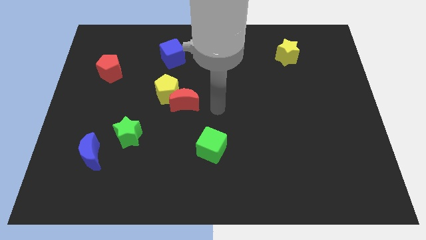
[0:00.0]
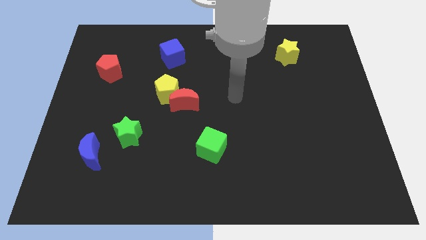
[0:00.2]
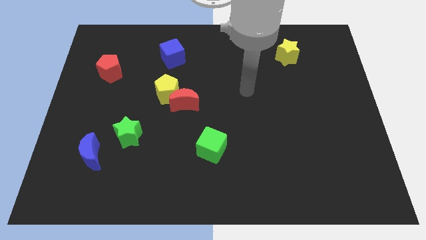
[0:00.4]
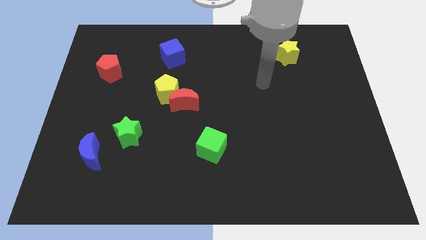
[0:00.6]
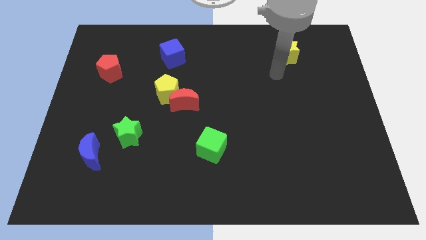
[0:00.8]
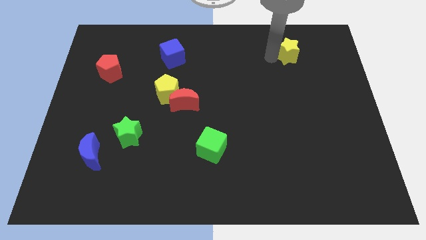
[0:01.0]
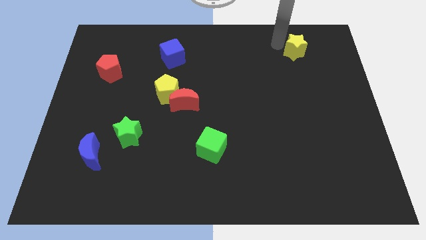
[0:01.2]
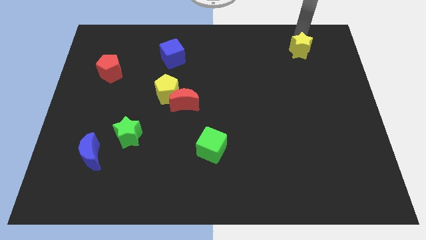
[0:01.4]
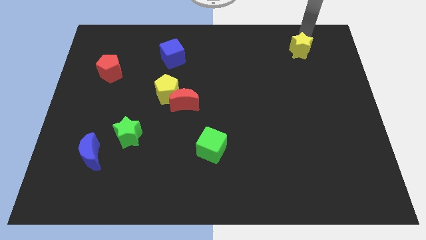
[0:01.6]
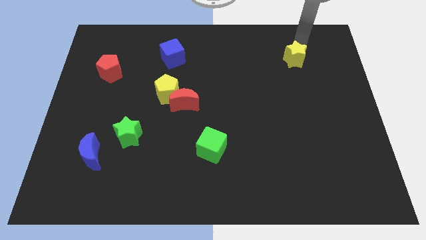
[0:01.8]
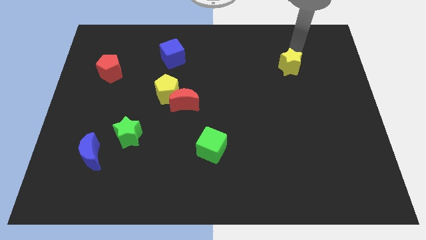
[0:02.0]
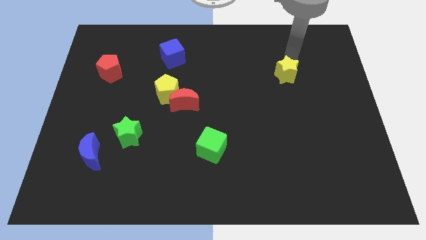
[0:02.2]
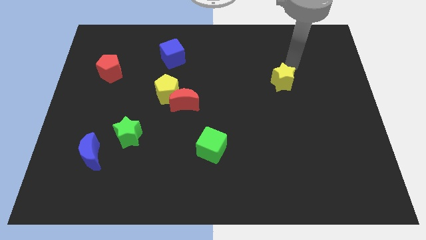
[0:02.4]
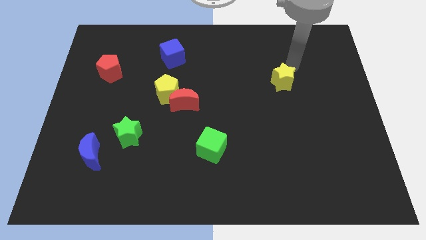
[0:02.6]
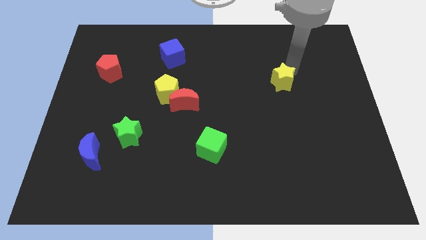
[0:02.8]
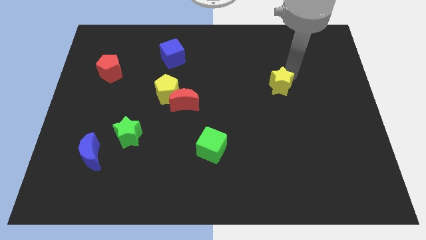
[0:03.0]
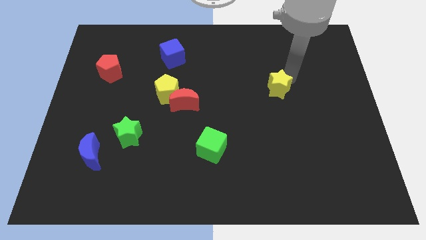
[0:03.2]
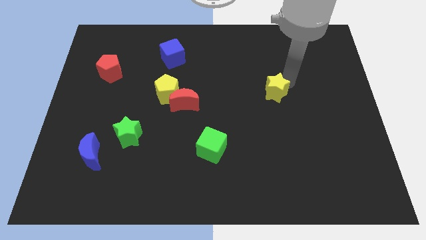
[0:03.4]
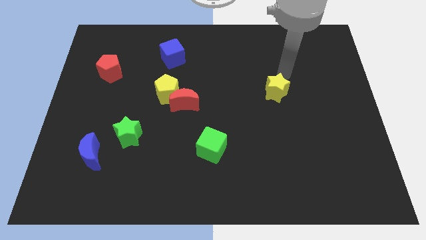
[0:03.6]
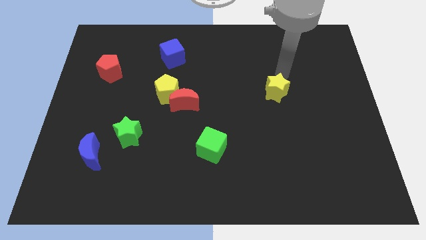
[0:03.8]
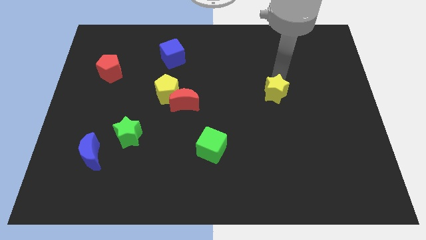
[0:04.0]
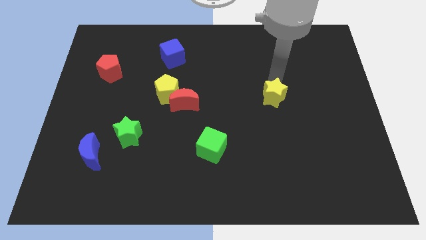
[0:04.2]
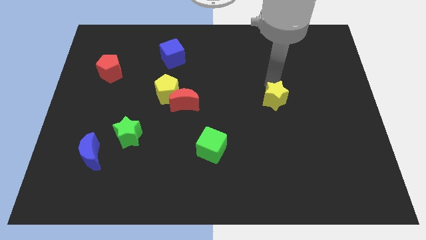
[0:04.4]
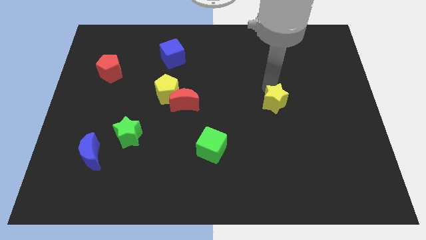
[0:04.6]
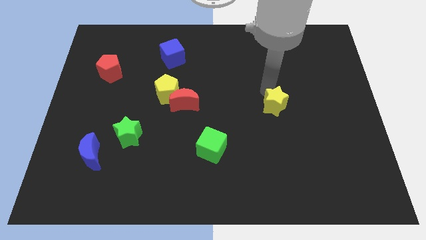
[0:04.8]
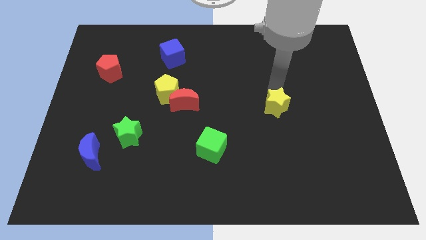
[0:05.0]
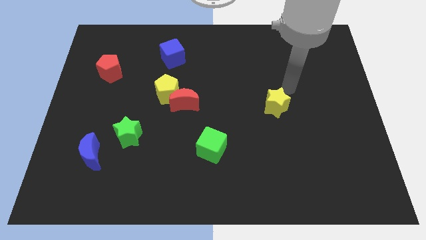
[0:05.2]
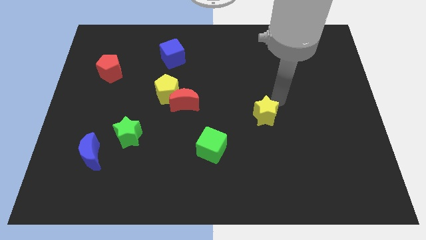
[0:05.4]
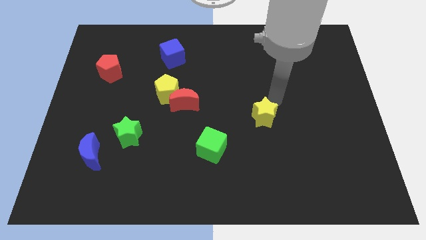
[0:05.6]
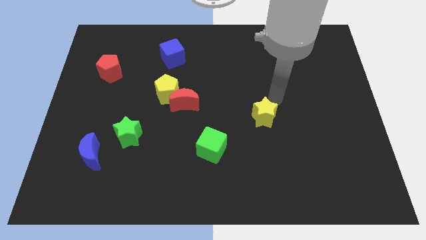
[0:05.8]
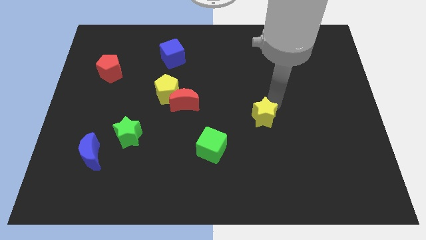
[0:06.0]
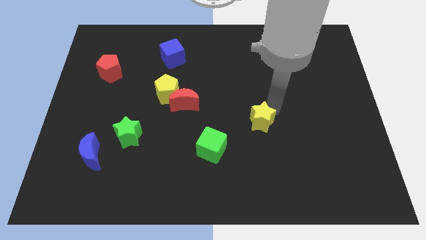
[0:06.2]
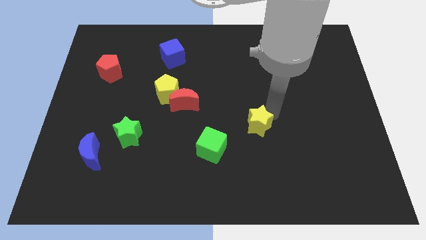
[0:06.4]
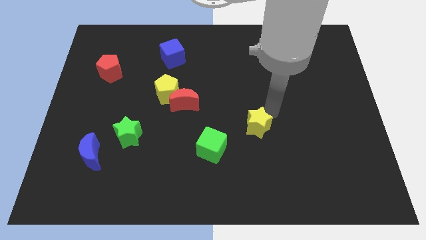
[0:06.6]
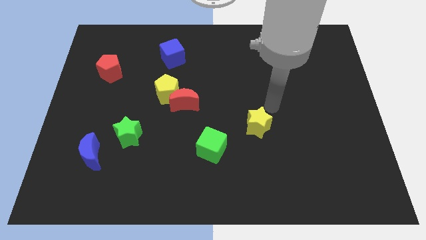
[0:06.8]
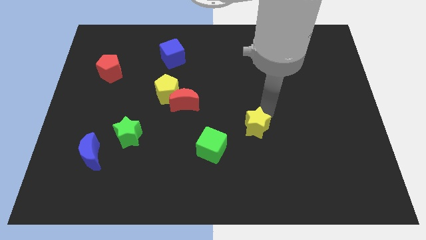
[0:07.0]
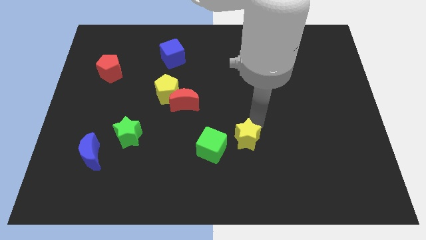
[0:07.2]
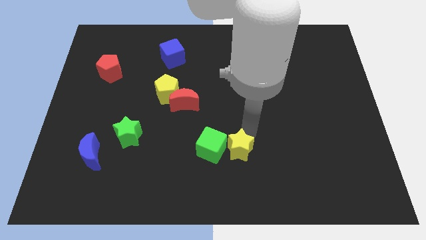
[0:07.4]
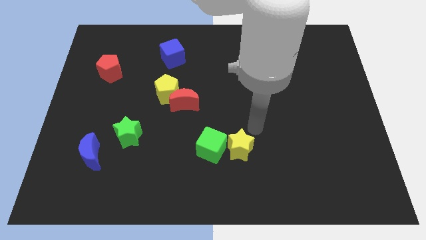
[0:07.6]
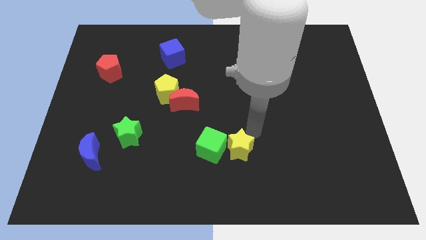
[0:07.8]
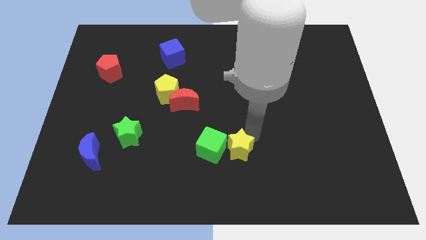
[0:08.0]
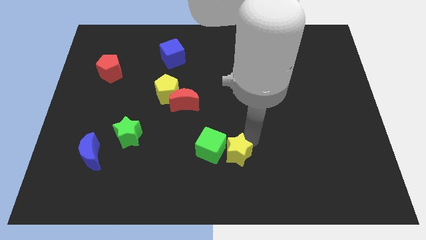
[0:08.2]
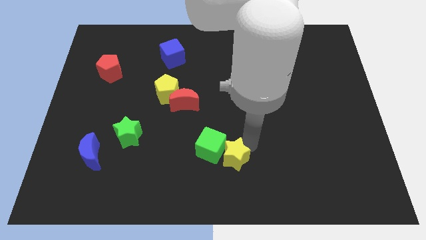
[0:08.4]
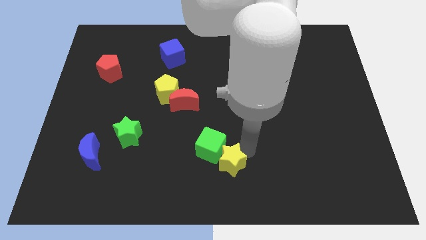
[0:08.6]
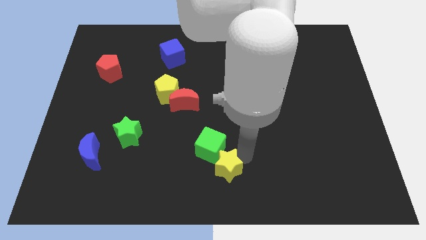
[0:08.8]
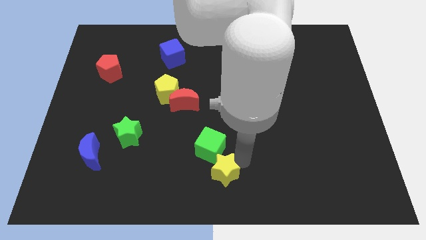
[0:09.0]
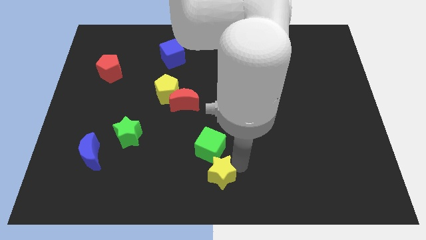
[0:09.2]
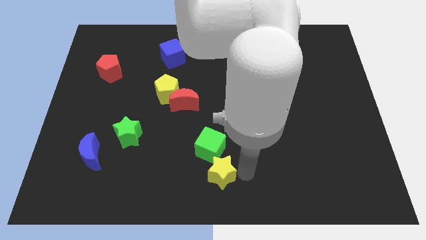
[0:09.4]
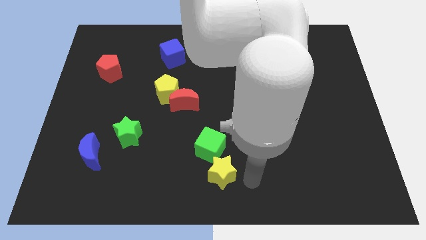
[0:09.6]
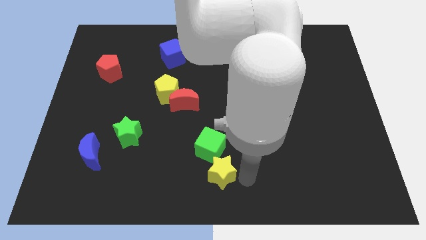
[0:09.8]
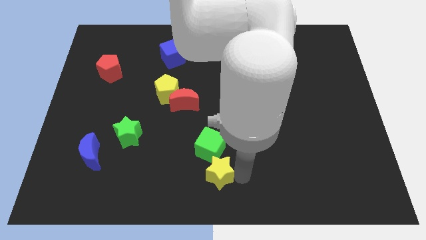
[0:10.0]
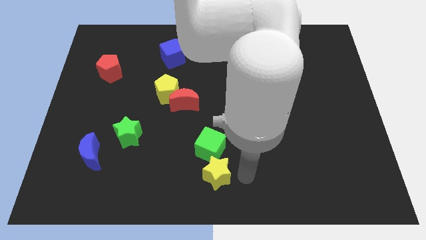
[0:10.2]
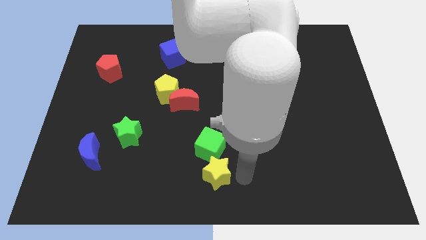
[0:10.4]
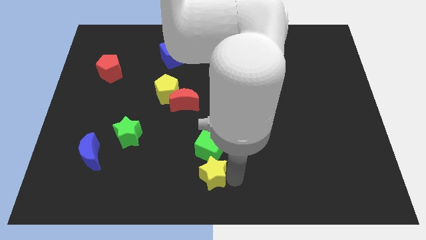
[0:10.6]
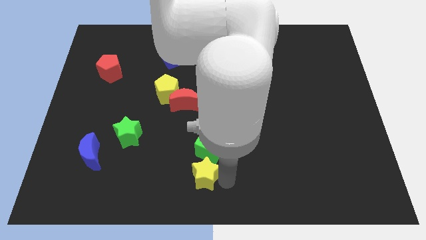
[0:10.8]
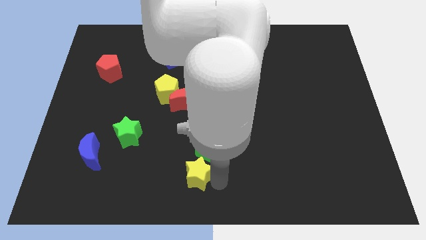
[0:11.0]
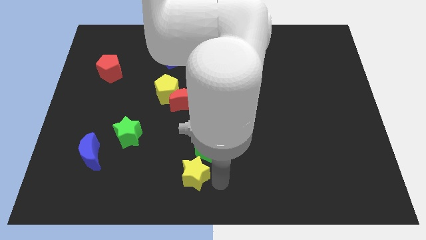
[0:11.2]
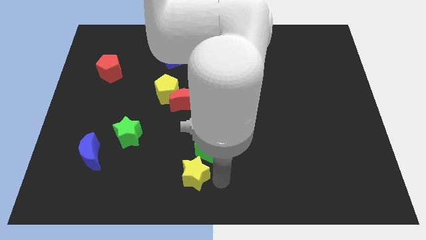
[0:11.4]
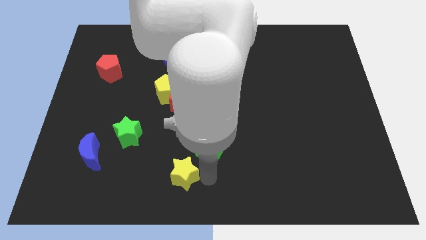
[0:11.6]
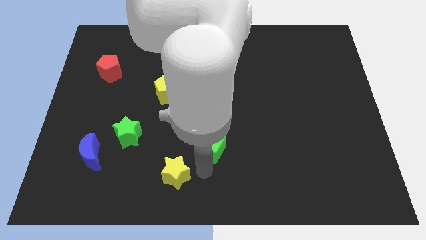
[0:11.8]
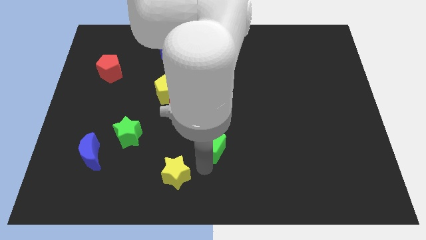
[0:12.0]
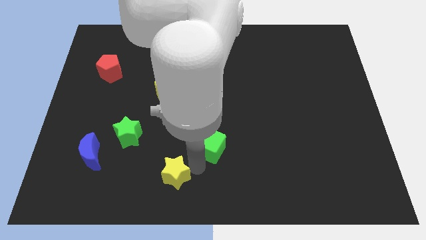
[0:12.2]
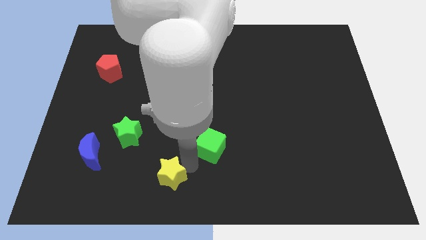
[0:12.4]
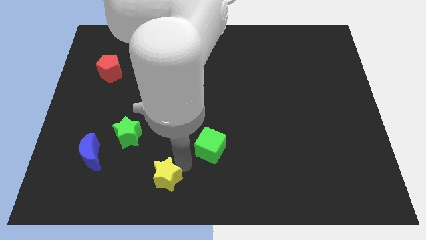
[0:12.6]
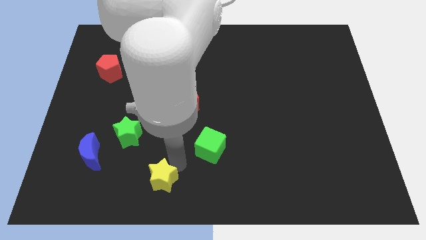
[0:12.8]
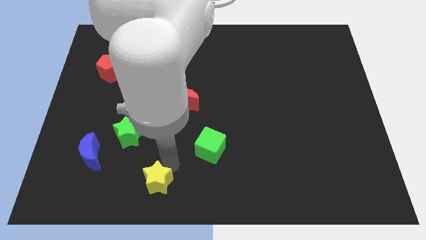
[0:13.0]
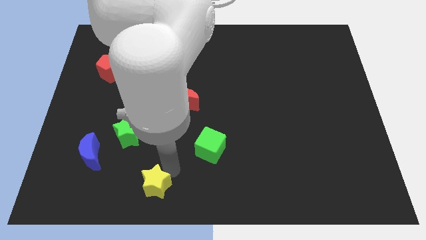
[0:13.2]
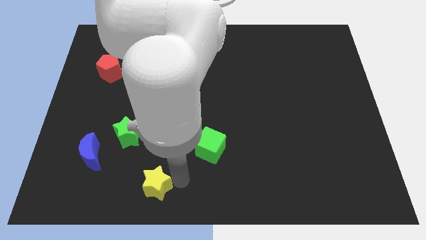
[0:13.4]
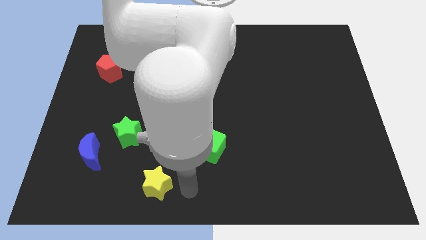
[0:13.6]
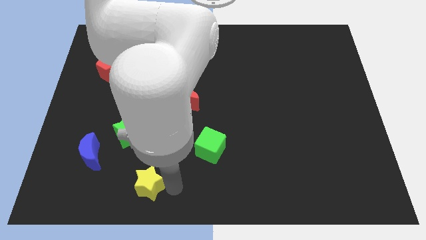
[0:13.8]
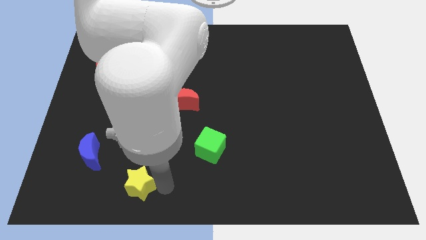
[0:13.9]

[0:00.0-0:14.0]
move the yellow star to the bottom side of the green star

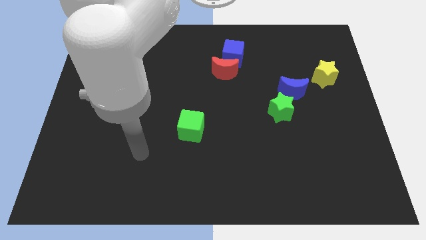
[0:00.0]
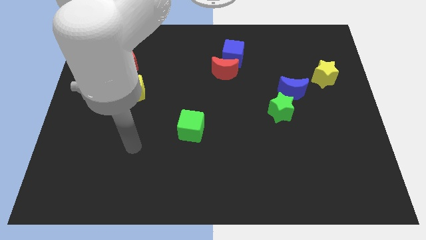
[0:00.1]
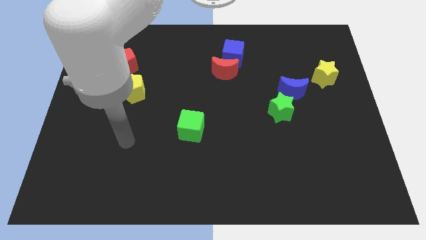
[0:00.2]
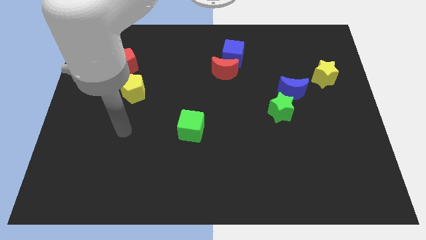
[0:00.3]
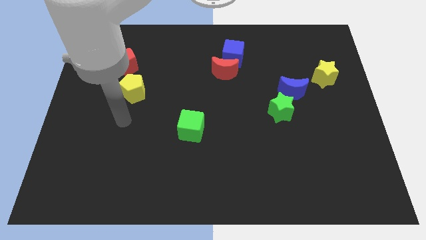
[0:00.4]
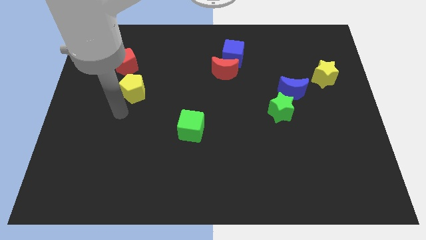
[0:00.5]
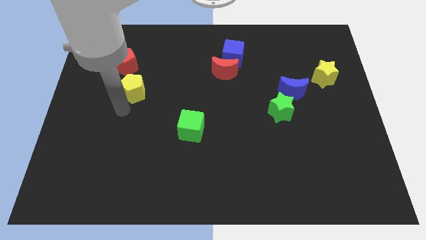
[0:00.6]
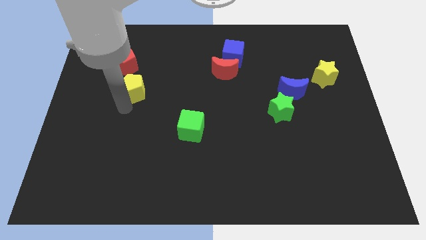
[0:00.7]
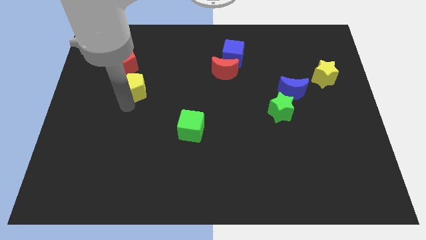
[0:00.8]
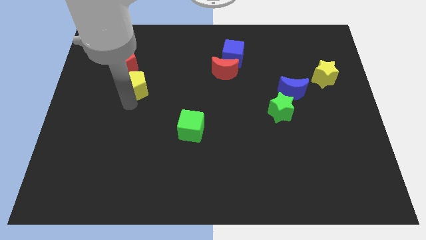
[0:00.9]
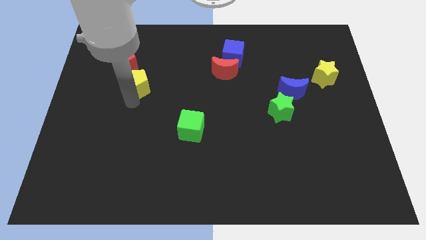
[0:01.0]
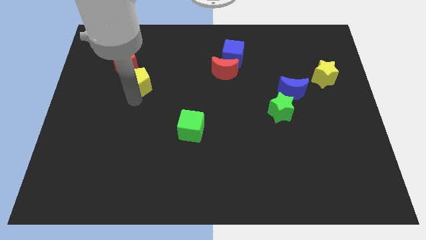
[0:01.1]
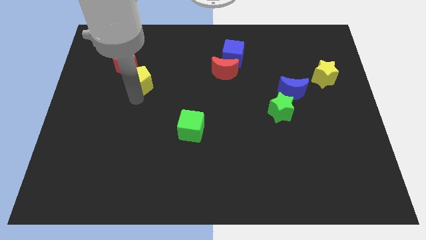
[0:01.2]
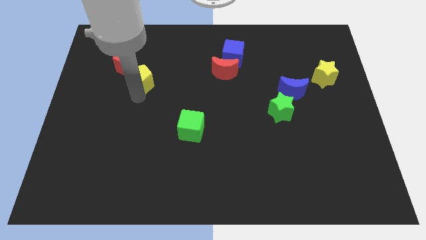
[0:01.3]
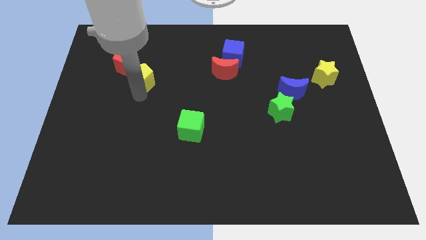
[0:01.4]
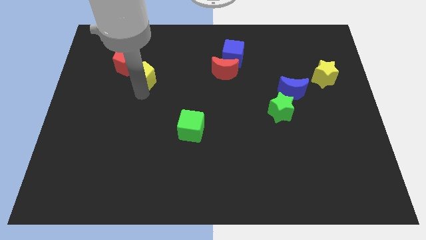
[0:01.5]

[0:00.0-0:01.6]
push the yellow pentagon to the right of the red pentagon
